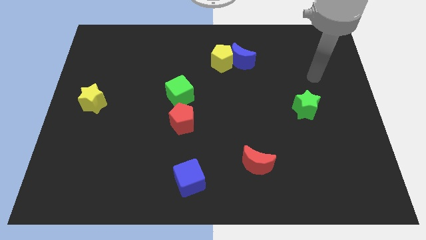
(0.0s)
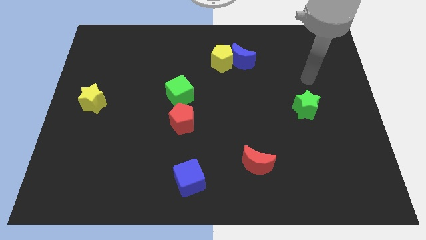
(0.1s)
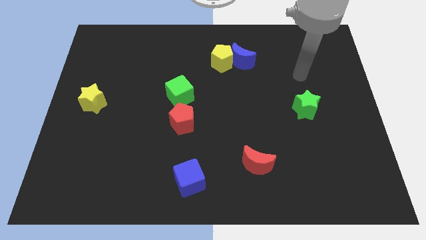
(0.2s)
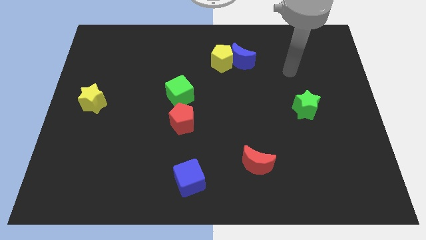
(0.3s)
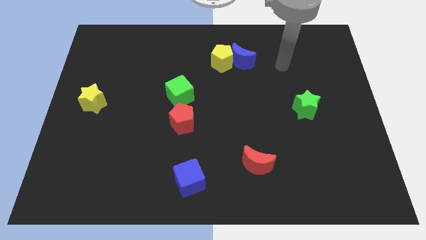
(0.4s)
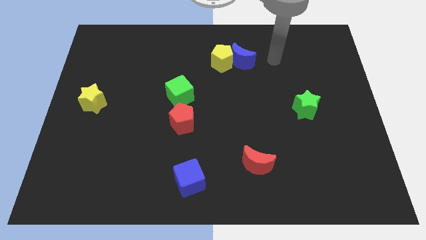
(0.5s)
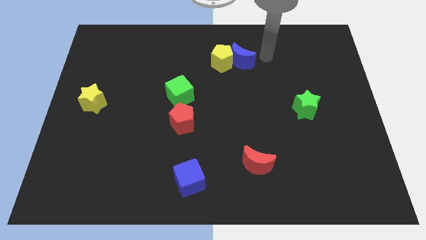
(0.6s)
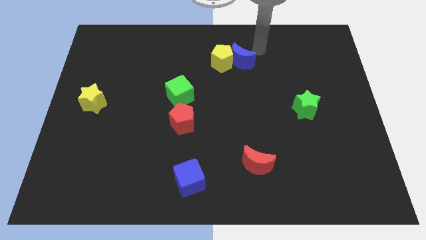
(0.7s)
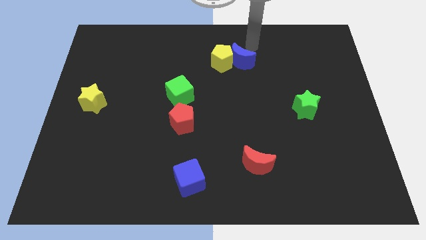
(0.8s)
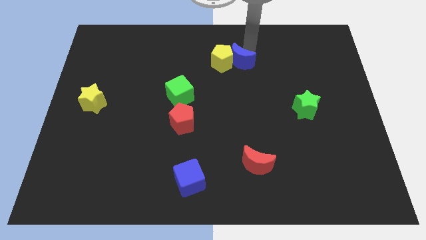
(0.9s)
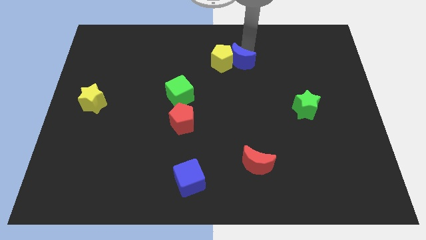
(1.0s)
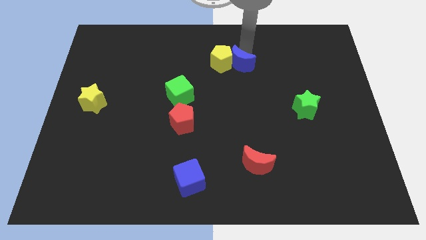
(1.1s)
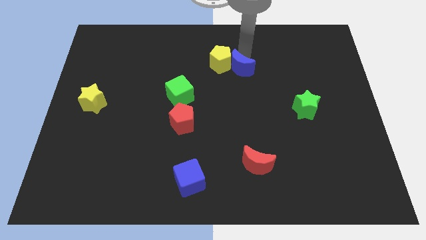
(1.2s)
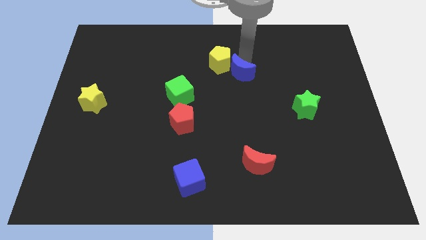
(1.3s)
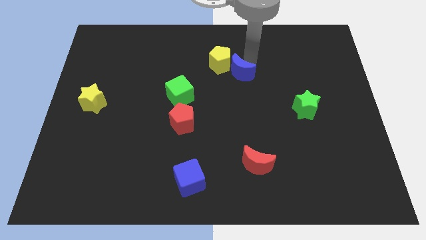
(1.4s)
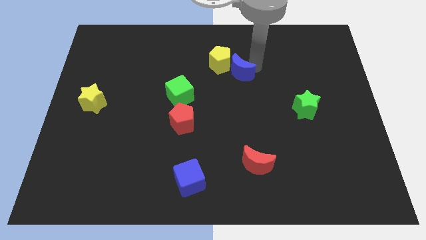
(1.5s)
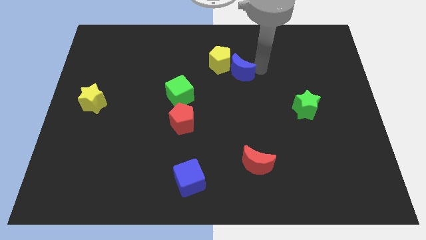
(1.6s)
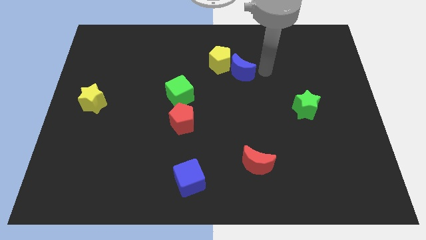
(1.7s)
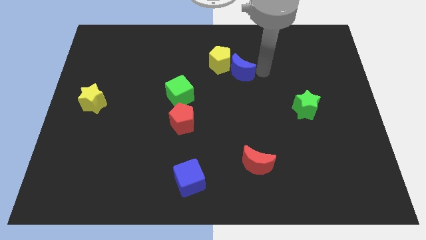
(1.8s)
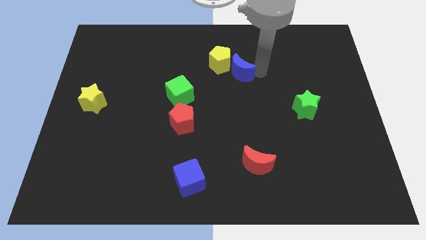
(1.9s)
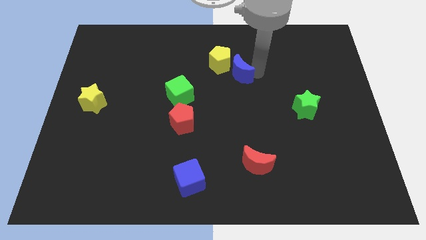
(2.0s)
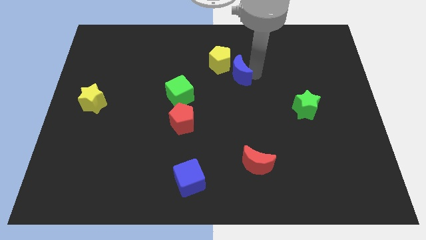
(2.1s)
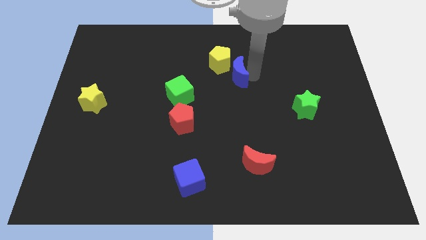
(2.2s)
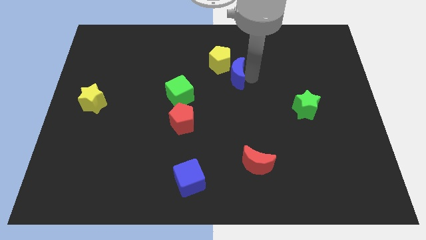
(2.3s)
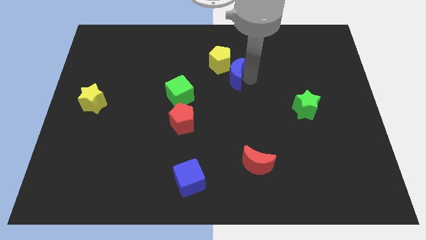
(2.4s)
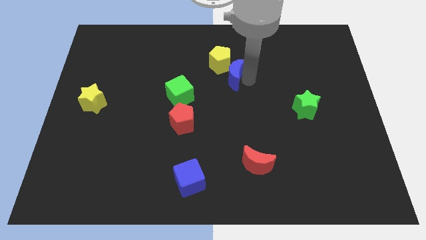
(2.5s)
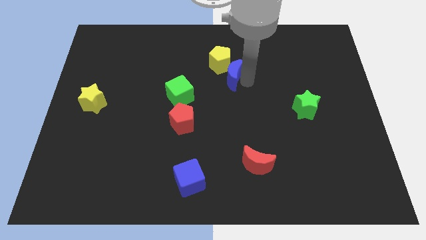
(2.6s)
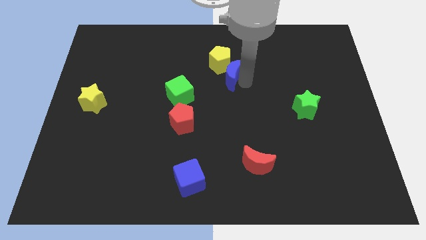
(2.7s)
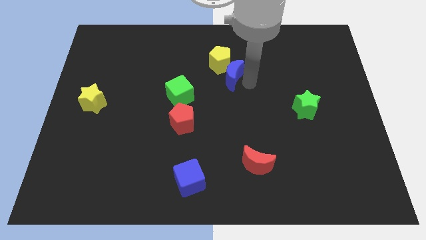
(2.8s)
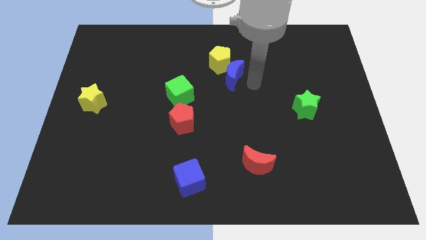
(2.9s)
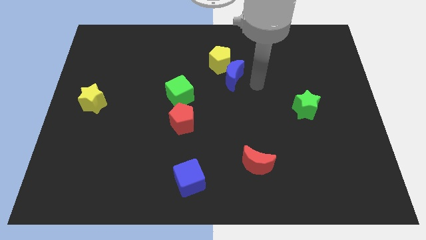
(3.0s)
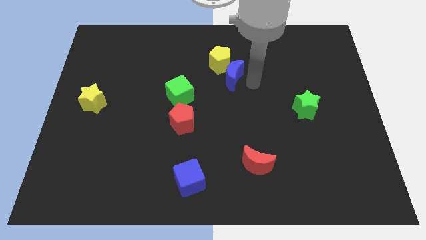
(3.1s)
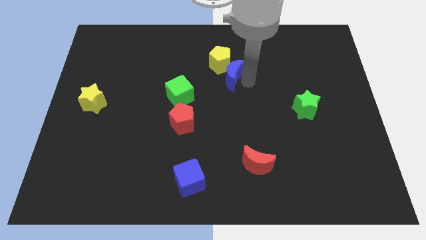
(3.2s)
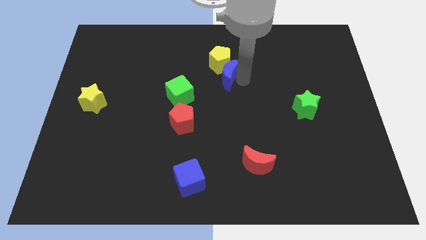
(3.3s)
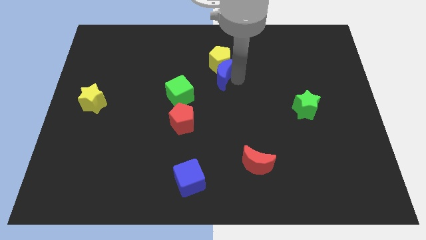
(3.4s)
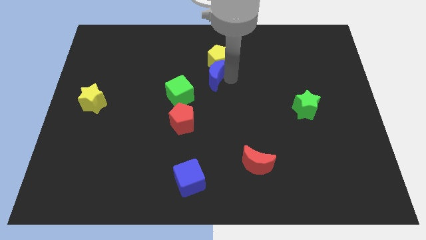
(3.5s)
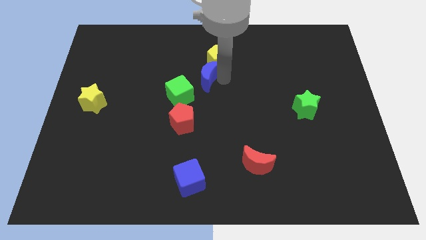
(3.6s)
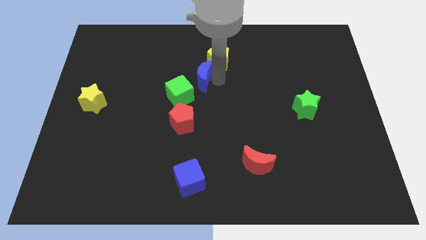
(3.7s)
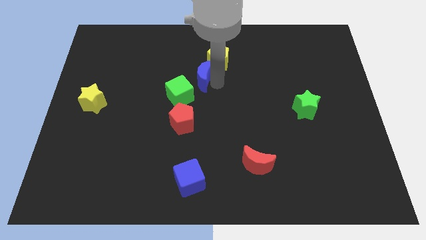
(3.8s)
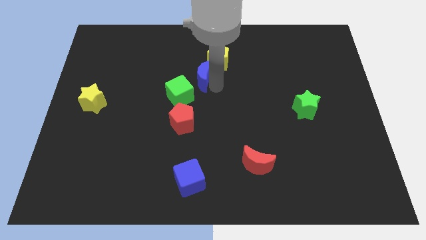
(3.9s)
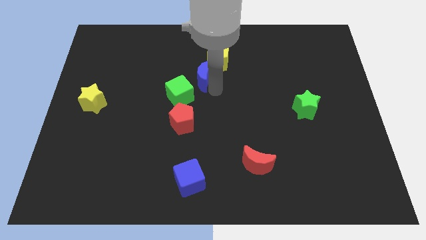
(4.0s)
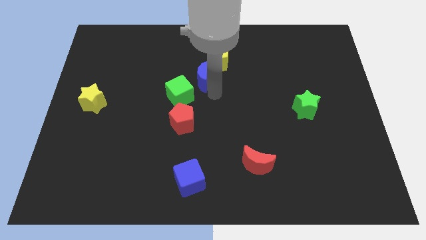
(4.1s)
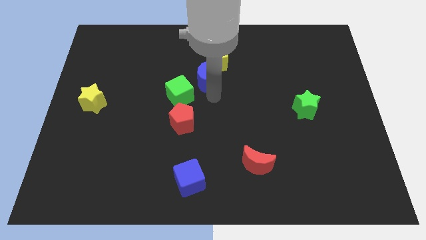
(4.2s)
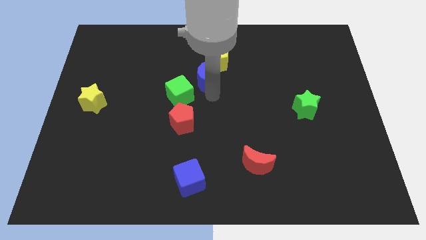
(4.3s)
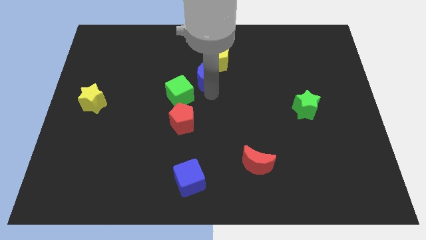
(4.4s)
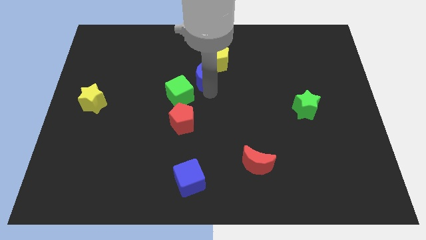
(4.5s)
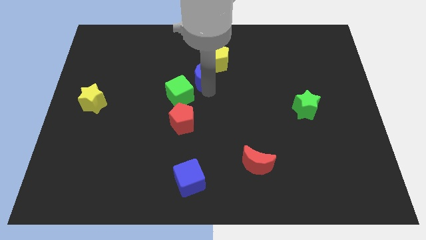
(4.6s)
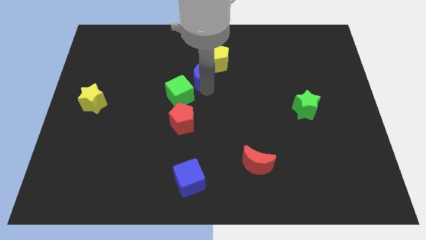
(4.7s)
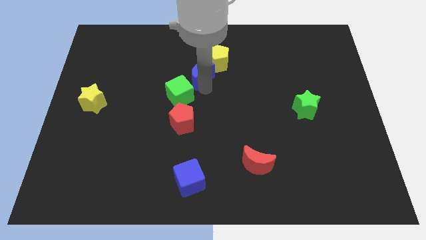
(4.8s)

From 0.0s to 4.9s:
put the blue moon above the green cube

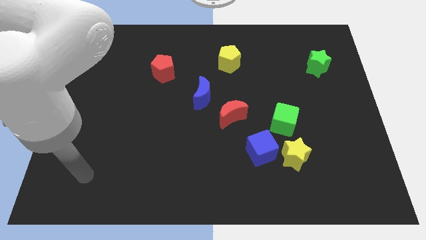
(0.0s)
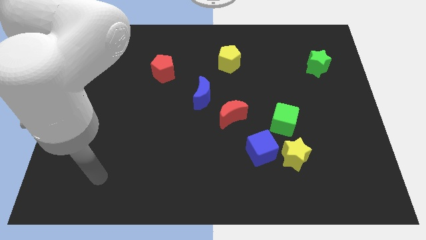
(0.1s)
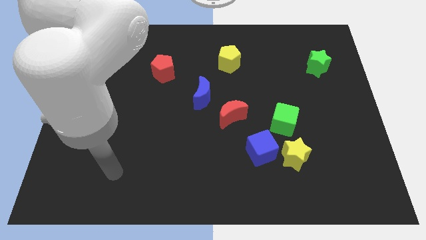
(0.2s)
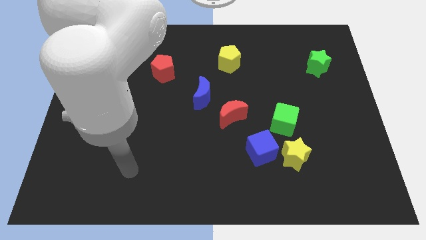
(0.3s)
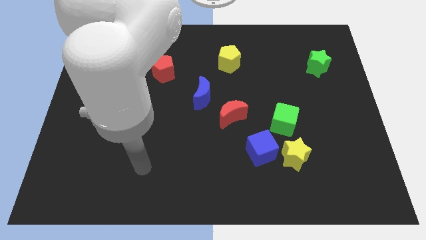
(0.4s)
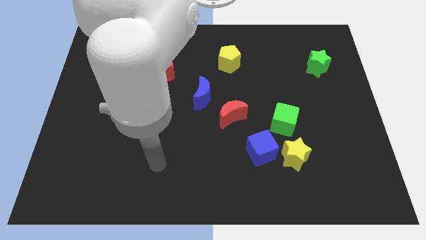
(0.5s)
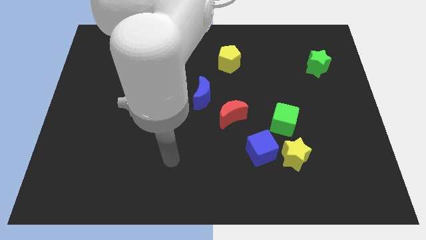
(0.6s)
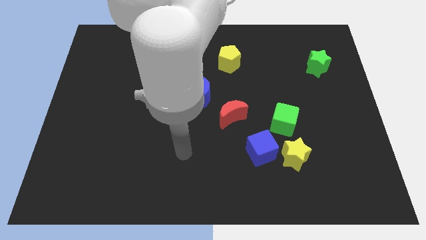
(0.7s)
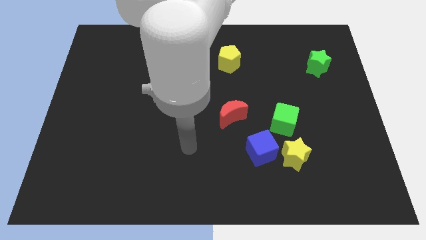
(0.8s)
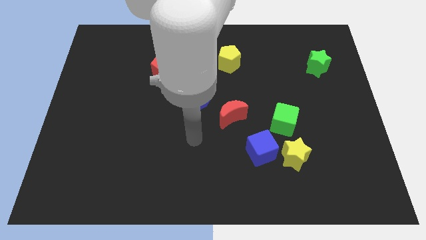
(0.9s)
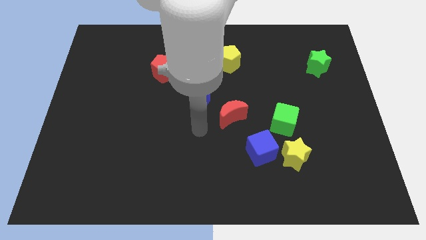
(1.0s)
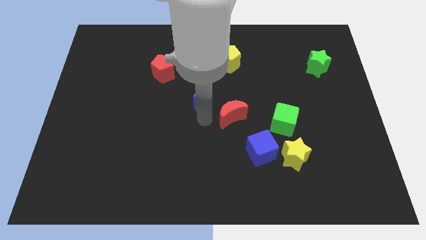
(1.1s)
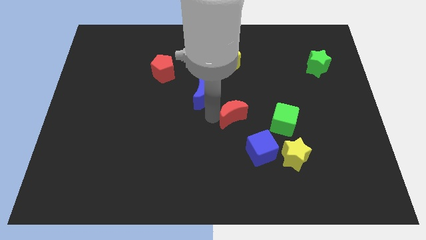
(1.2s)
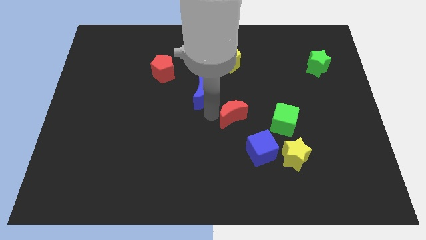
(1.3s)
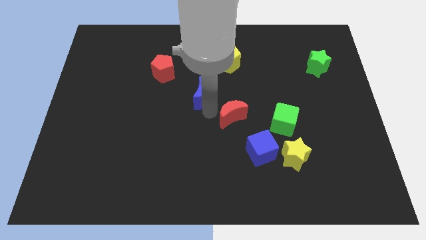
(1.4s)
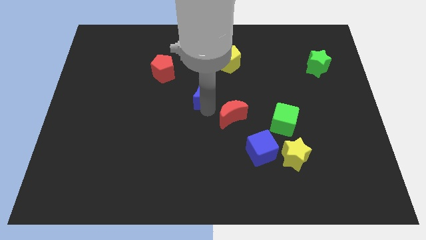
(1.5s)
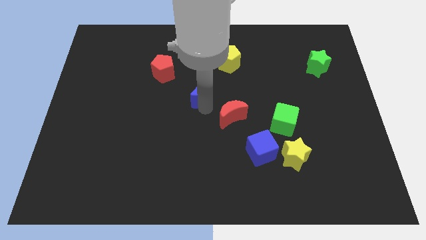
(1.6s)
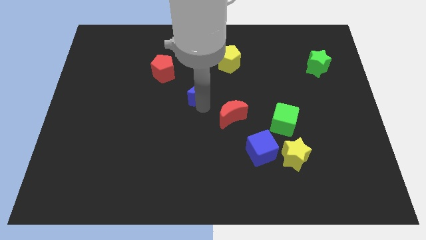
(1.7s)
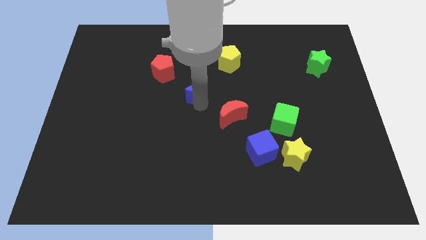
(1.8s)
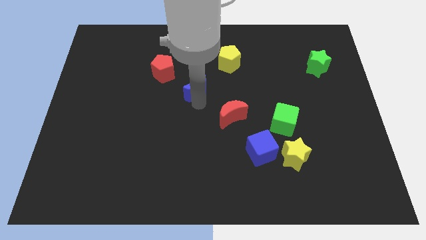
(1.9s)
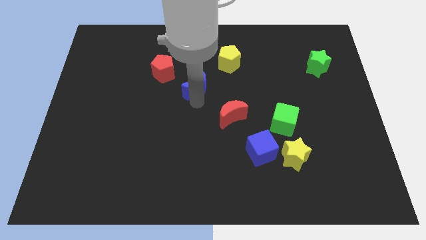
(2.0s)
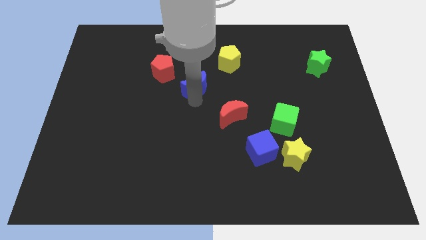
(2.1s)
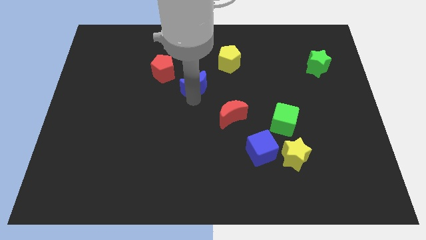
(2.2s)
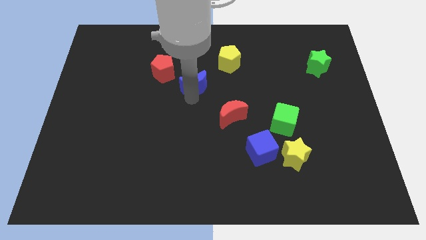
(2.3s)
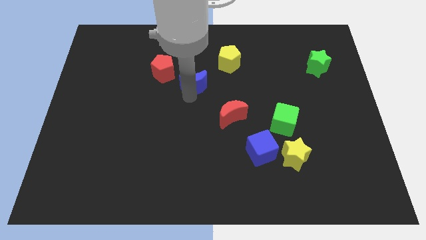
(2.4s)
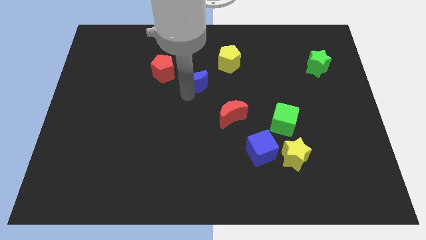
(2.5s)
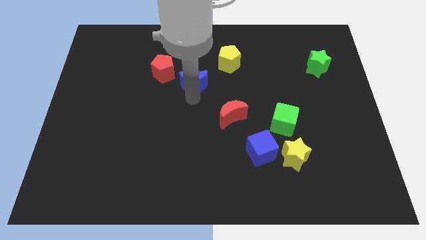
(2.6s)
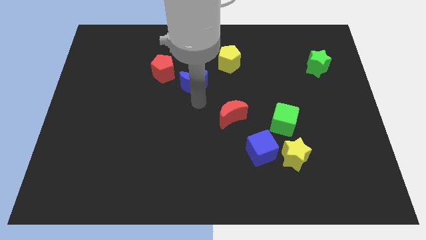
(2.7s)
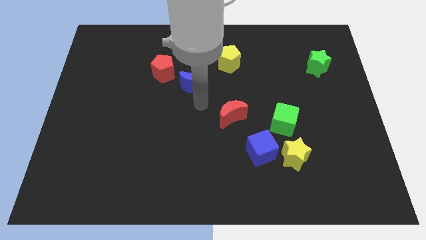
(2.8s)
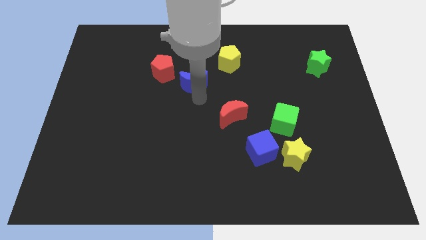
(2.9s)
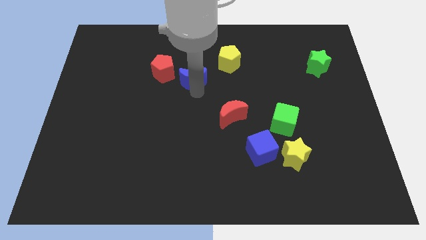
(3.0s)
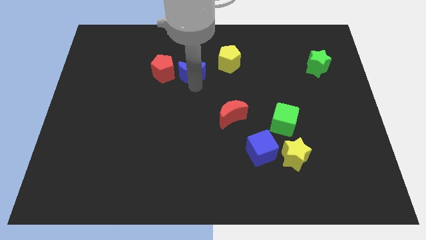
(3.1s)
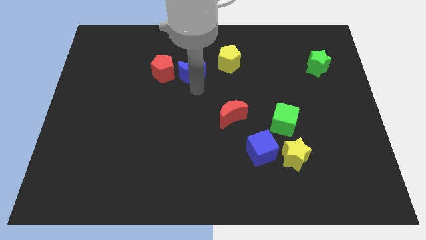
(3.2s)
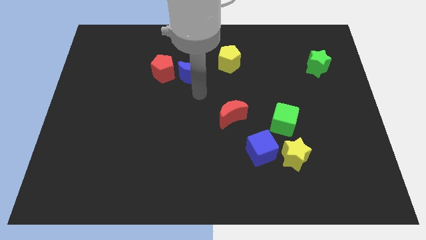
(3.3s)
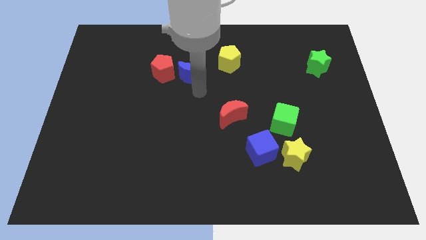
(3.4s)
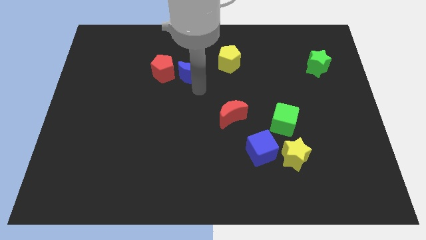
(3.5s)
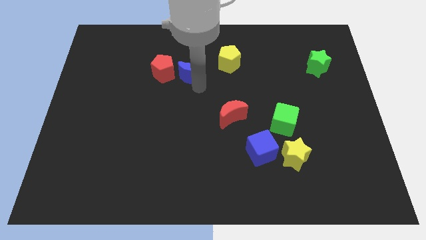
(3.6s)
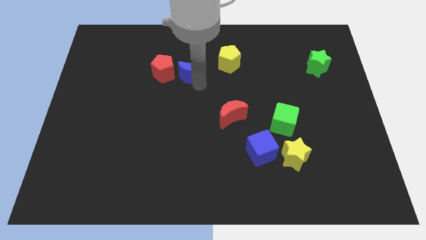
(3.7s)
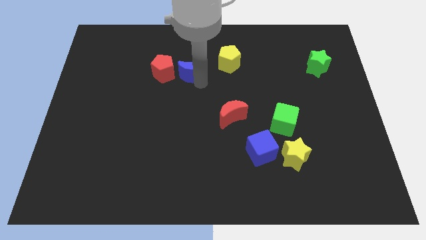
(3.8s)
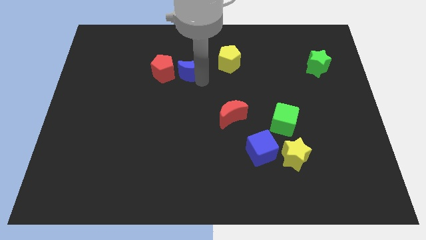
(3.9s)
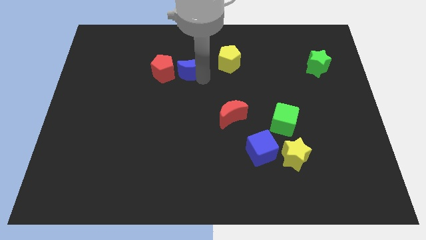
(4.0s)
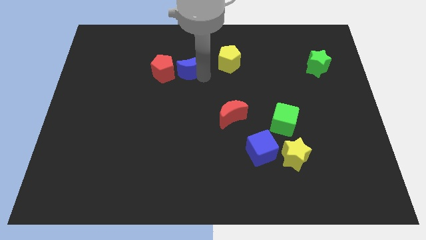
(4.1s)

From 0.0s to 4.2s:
put the blue moon diagonally up and to the right of the red pentagon
